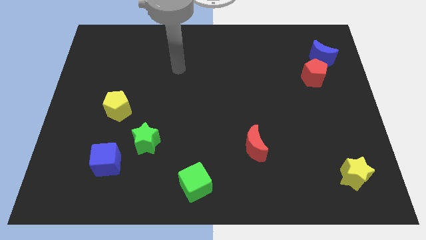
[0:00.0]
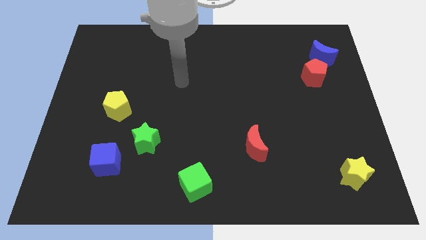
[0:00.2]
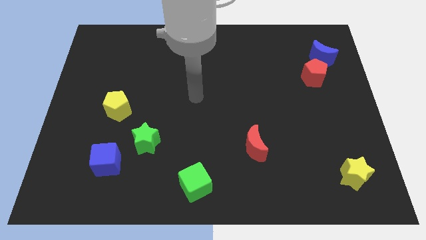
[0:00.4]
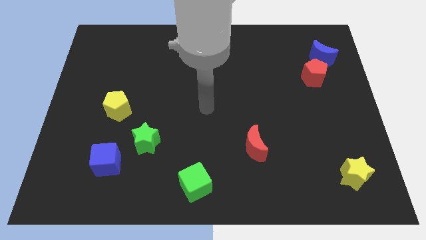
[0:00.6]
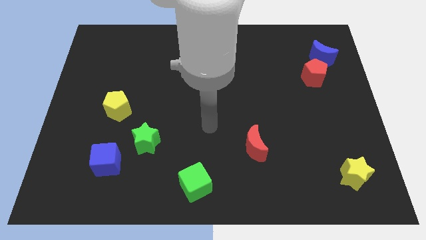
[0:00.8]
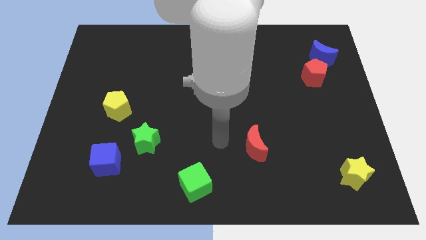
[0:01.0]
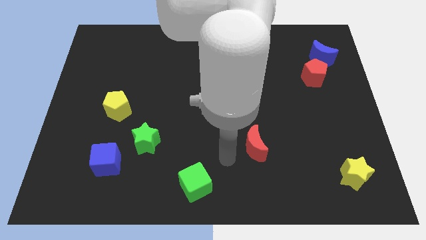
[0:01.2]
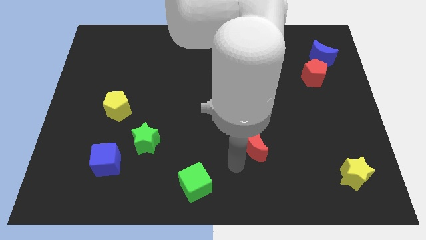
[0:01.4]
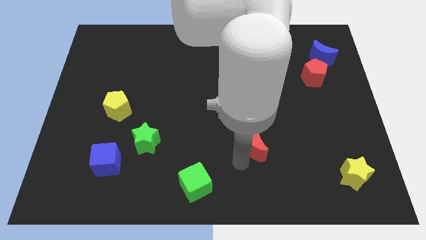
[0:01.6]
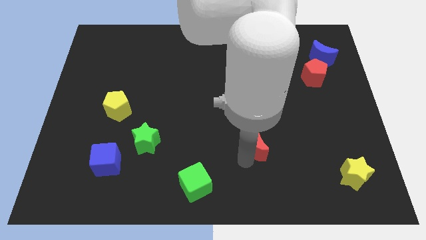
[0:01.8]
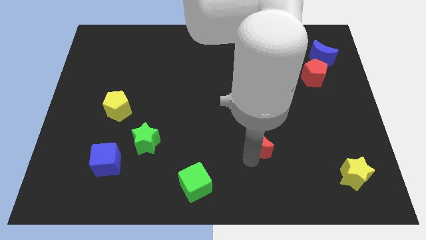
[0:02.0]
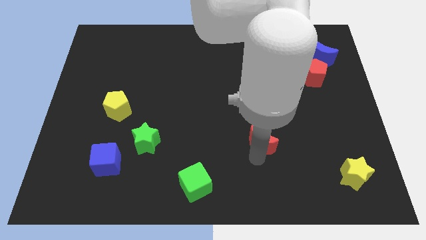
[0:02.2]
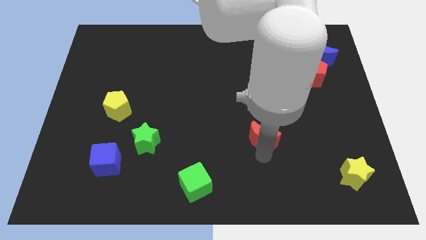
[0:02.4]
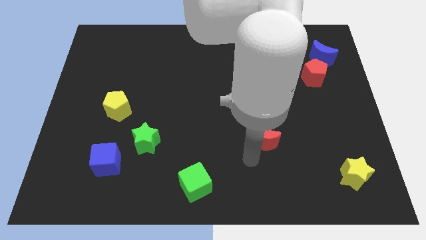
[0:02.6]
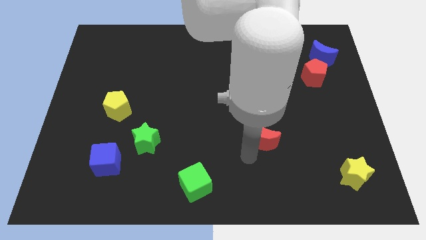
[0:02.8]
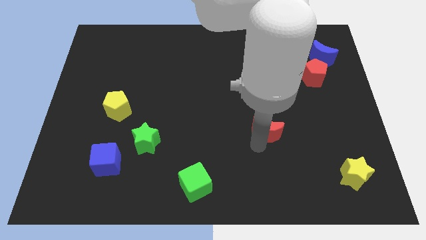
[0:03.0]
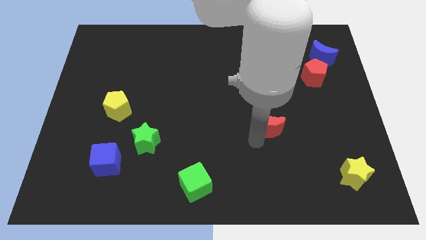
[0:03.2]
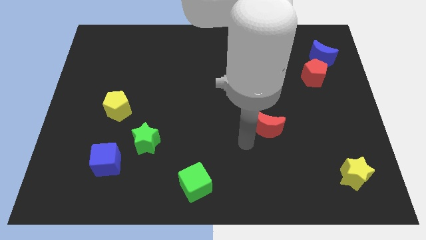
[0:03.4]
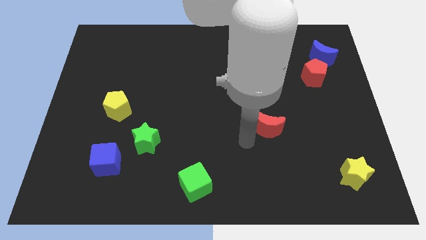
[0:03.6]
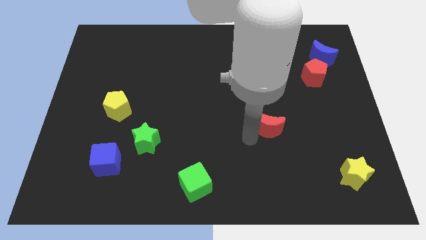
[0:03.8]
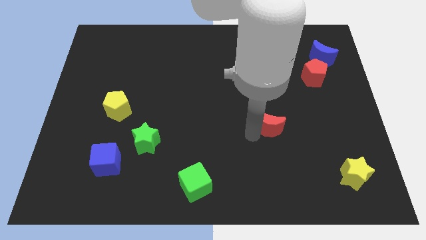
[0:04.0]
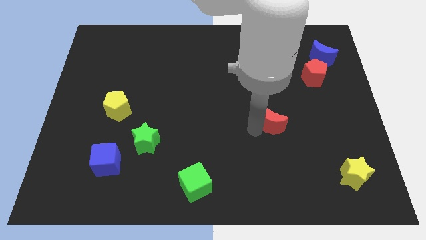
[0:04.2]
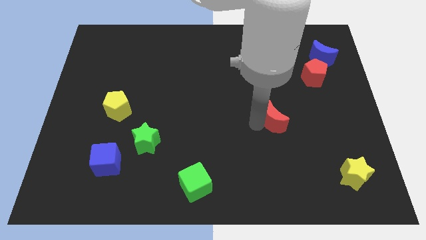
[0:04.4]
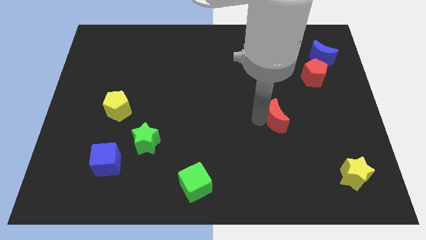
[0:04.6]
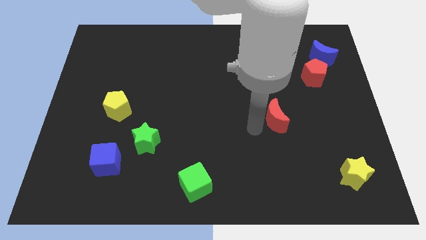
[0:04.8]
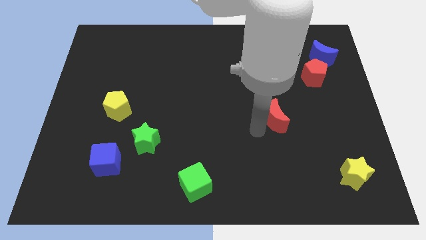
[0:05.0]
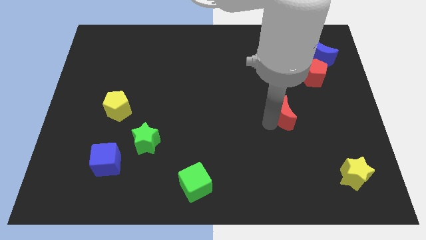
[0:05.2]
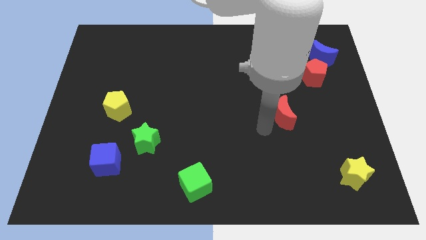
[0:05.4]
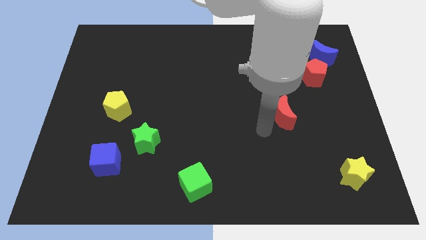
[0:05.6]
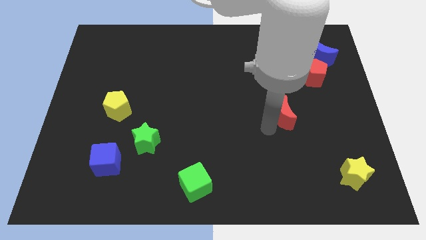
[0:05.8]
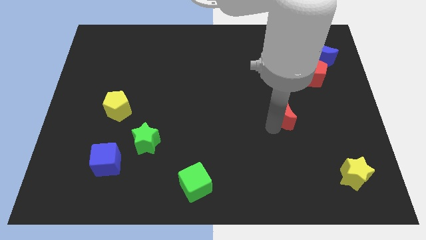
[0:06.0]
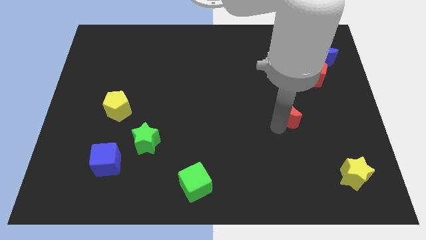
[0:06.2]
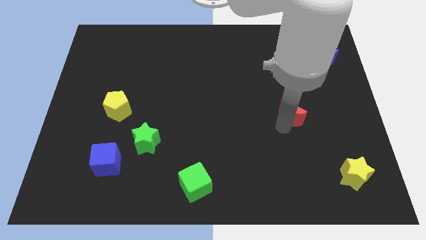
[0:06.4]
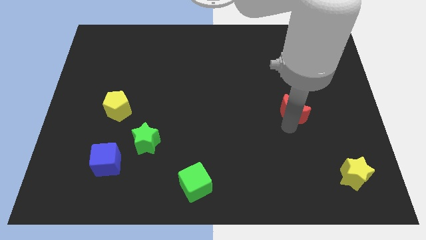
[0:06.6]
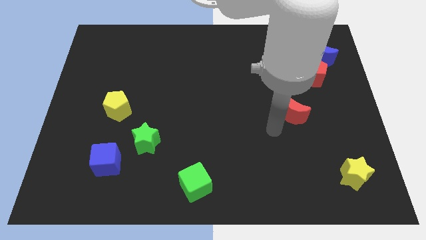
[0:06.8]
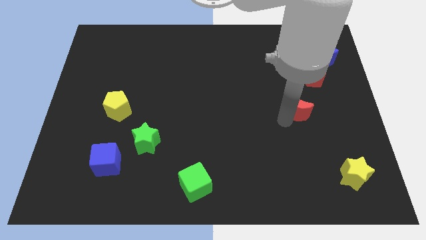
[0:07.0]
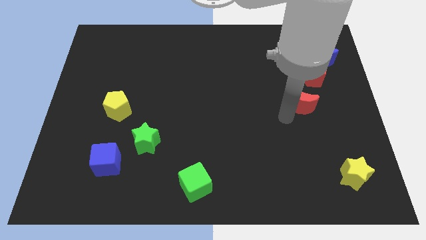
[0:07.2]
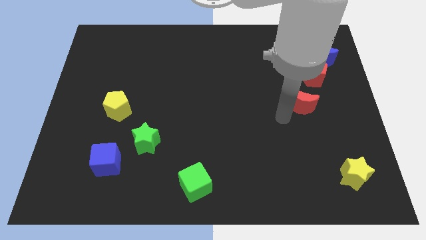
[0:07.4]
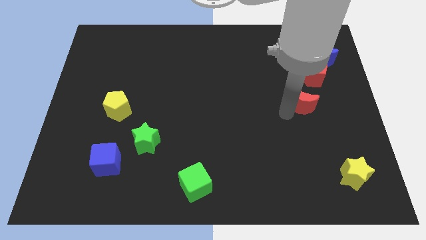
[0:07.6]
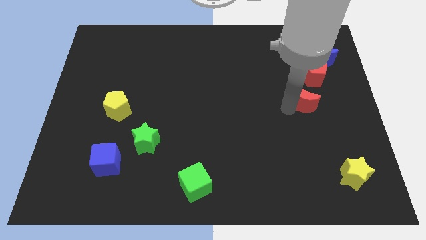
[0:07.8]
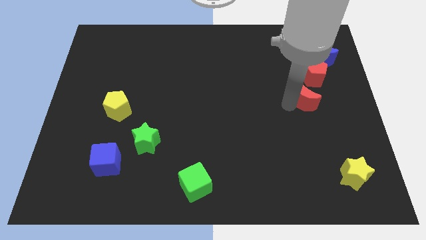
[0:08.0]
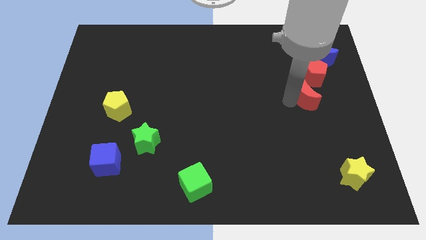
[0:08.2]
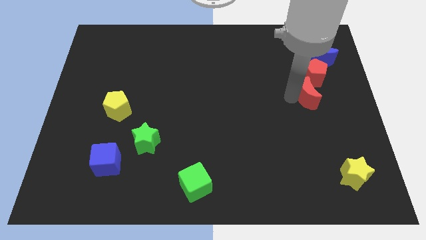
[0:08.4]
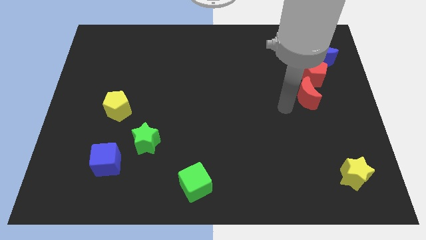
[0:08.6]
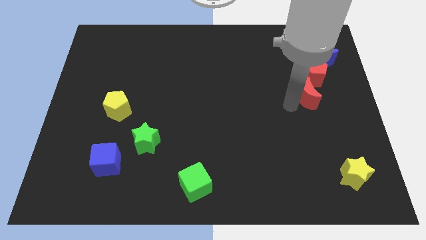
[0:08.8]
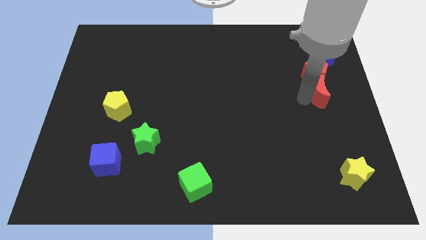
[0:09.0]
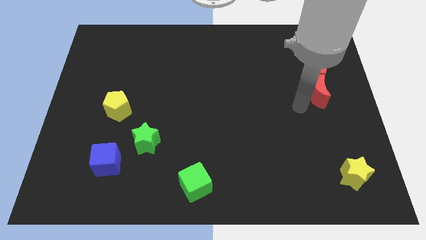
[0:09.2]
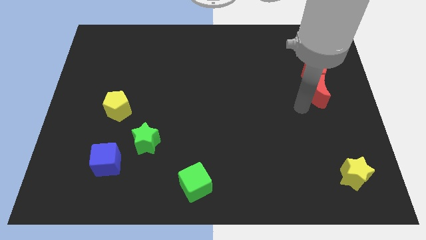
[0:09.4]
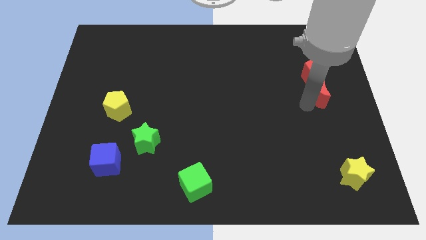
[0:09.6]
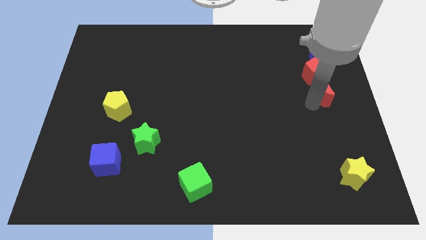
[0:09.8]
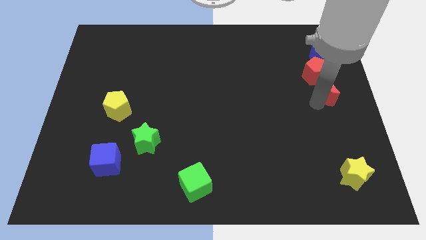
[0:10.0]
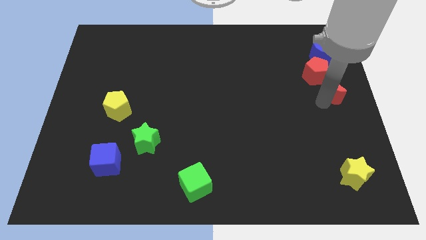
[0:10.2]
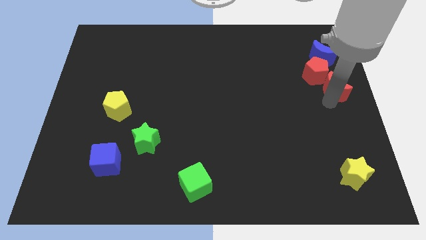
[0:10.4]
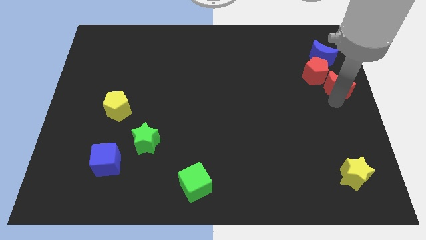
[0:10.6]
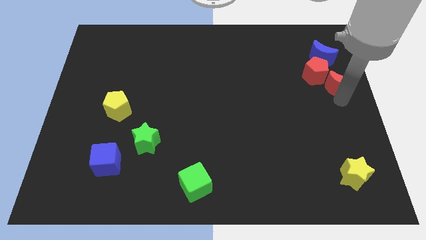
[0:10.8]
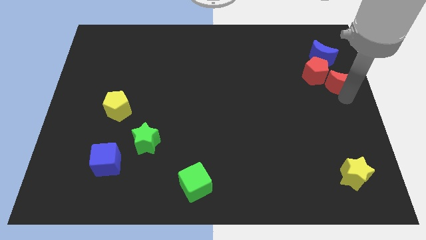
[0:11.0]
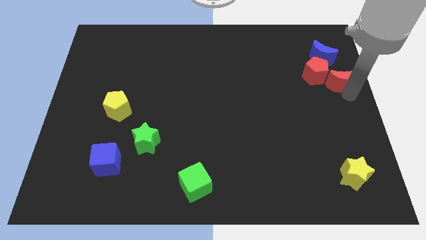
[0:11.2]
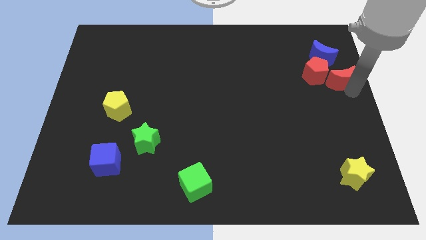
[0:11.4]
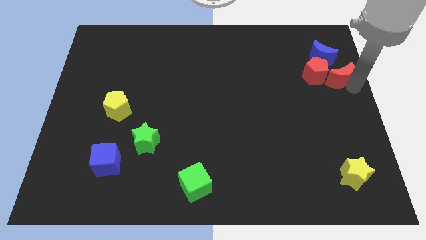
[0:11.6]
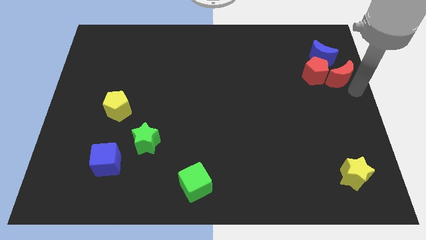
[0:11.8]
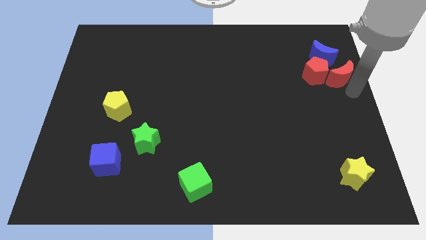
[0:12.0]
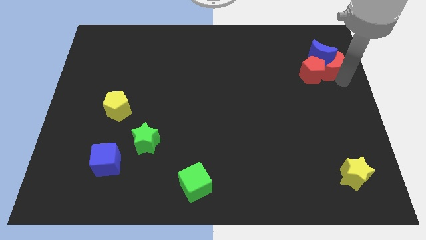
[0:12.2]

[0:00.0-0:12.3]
push the red moon towards the blue moon

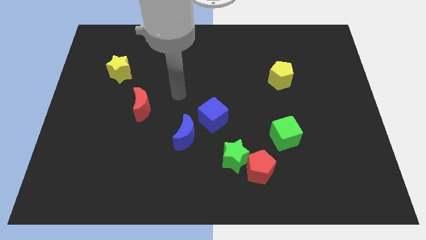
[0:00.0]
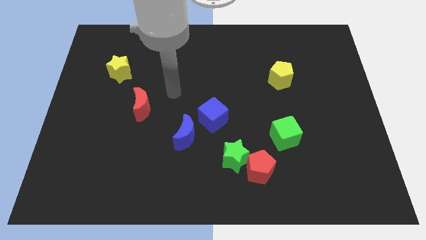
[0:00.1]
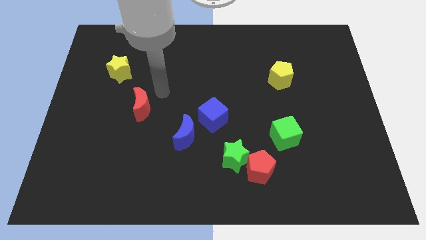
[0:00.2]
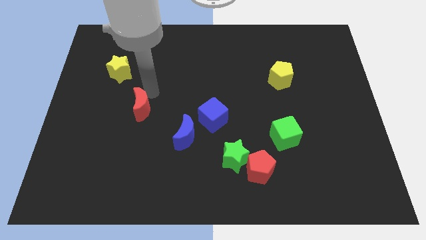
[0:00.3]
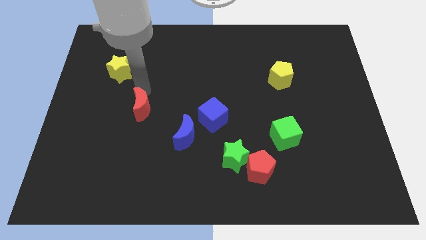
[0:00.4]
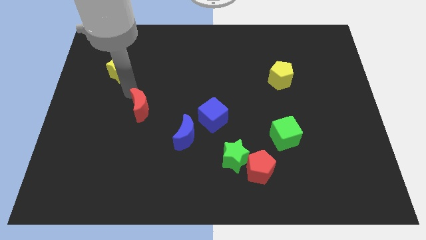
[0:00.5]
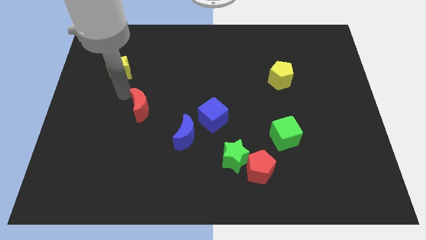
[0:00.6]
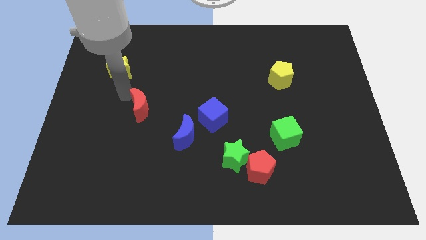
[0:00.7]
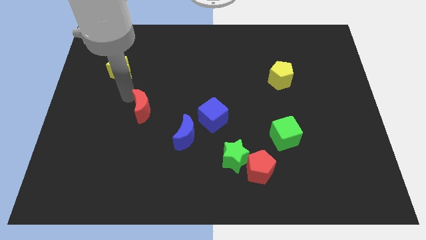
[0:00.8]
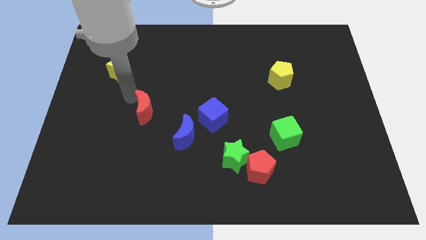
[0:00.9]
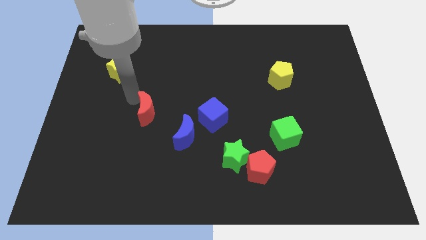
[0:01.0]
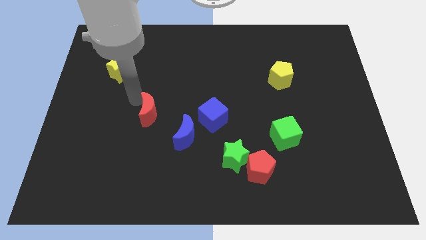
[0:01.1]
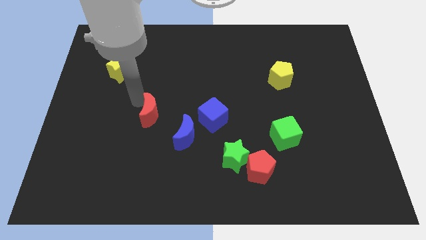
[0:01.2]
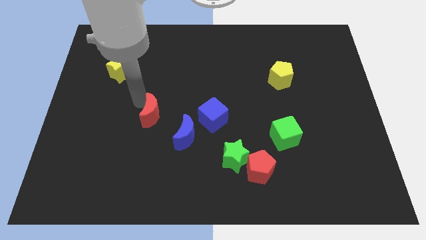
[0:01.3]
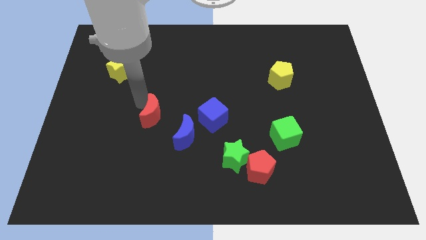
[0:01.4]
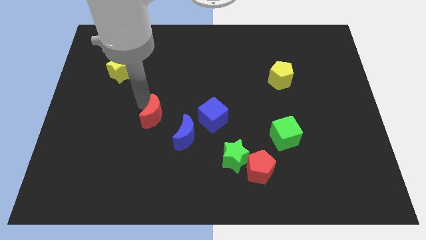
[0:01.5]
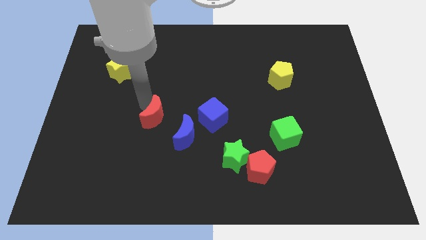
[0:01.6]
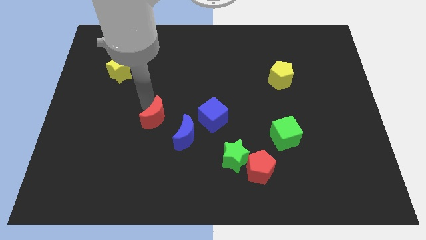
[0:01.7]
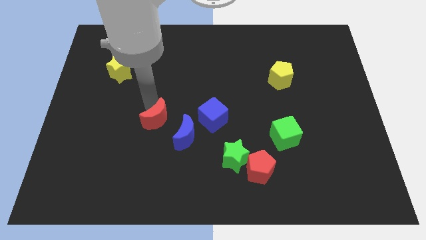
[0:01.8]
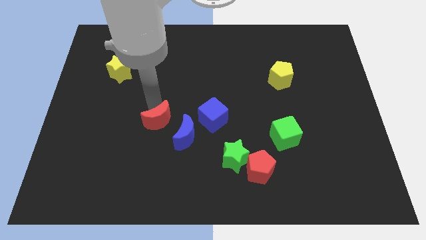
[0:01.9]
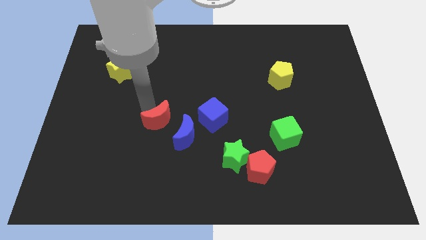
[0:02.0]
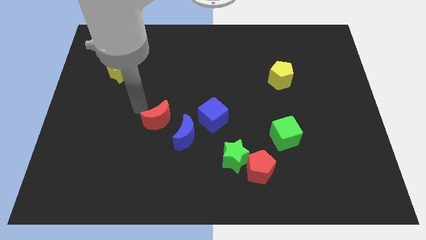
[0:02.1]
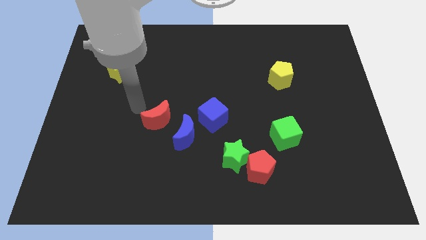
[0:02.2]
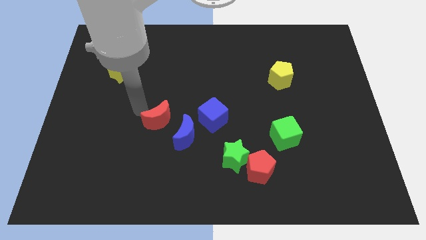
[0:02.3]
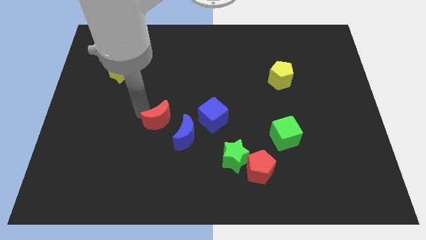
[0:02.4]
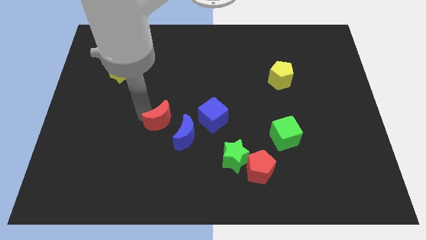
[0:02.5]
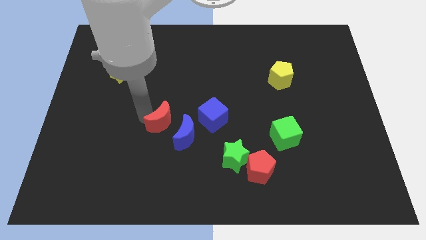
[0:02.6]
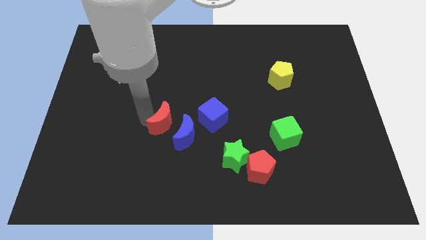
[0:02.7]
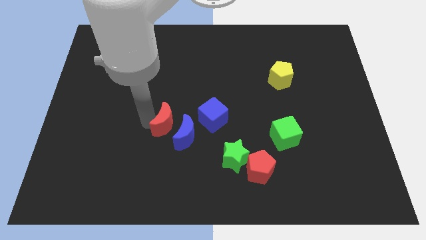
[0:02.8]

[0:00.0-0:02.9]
slide the red moon close to the blue moon
